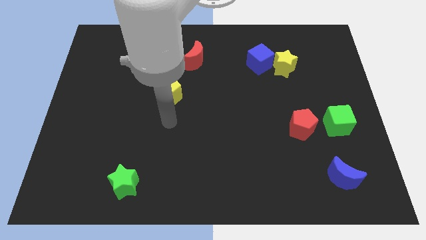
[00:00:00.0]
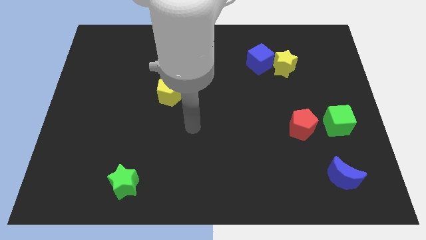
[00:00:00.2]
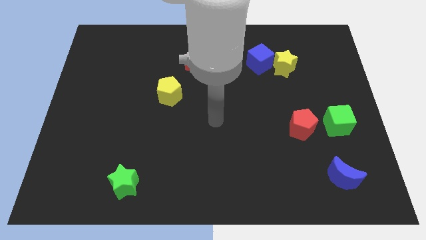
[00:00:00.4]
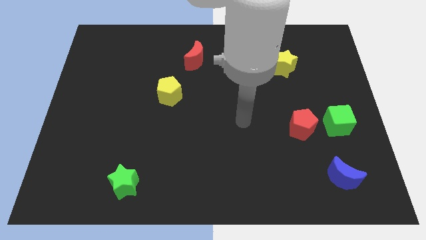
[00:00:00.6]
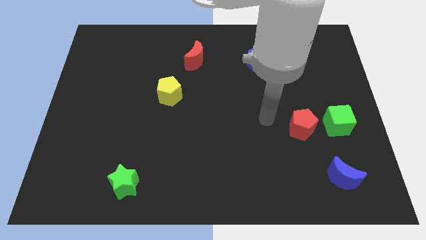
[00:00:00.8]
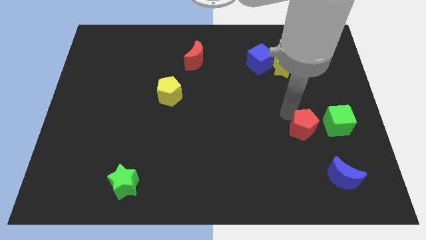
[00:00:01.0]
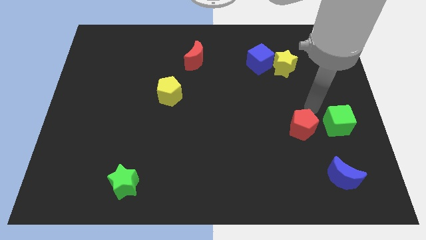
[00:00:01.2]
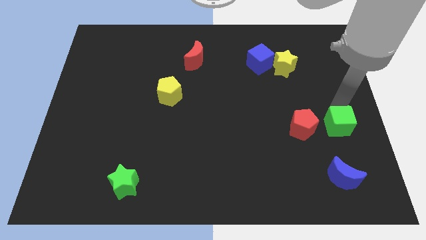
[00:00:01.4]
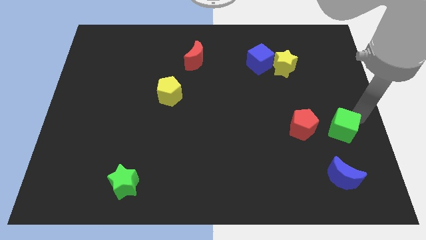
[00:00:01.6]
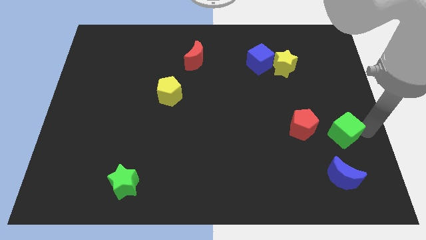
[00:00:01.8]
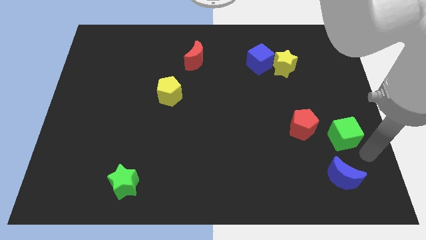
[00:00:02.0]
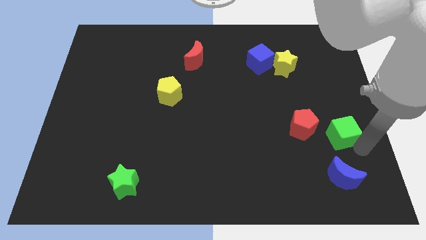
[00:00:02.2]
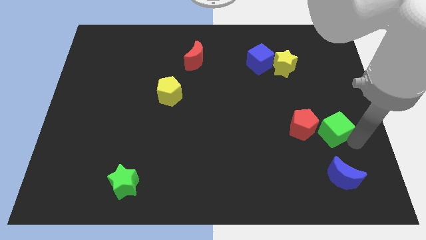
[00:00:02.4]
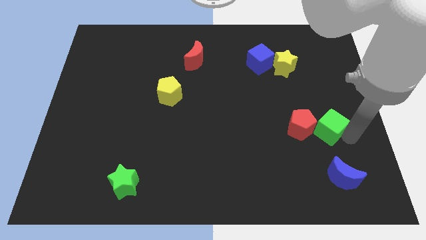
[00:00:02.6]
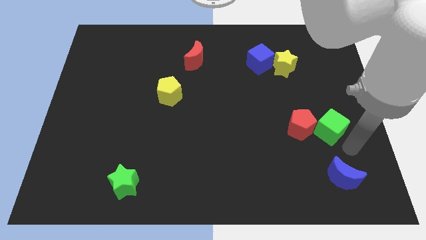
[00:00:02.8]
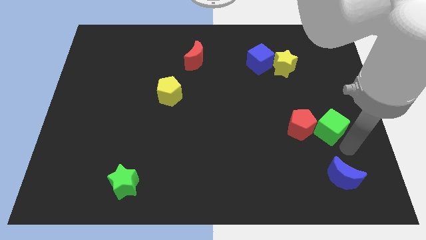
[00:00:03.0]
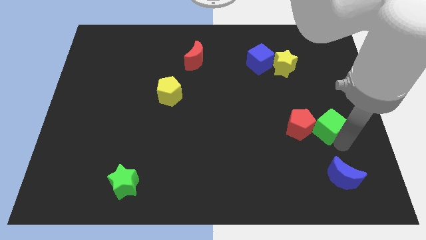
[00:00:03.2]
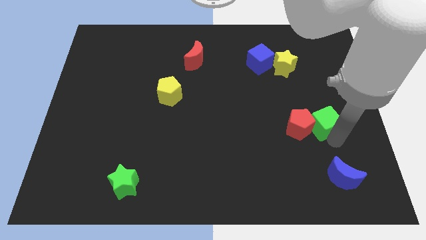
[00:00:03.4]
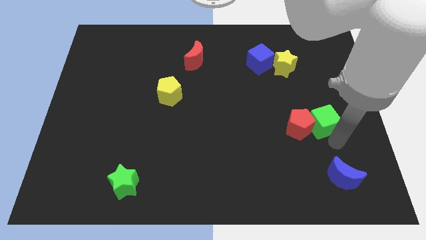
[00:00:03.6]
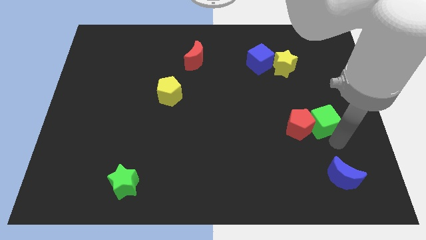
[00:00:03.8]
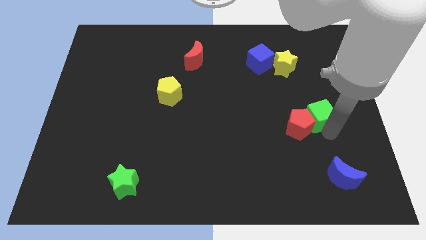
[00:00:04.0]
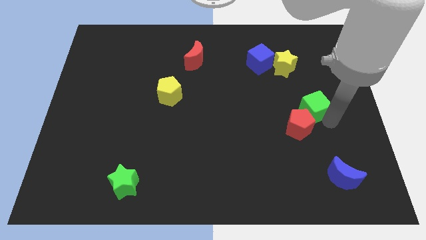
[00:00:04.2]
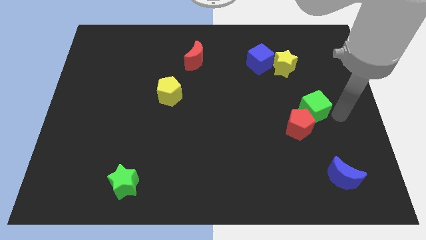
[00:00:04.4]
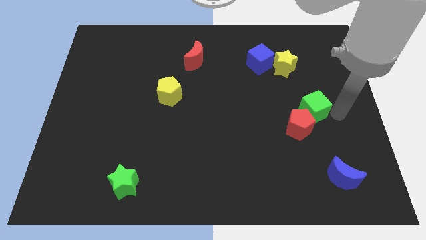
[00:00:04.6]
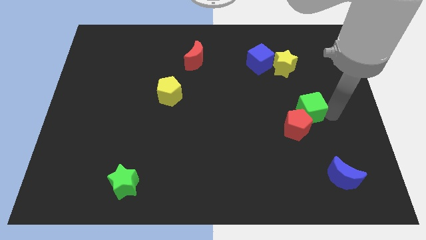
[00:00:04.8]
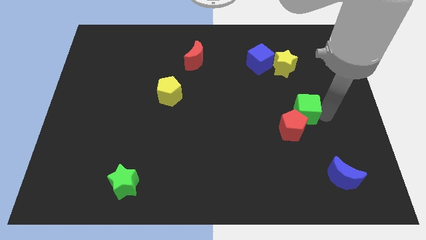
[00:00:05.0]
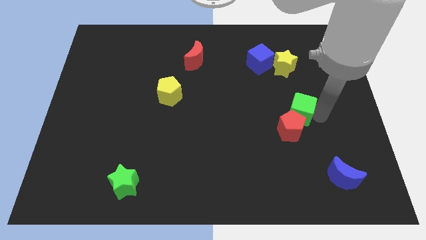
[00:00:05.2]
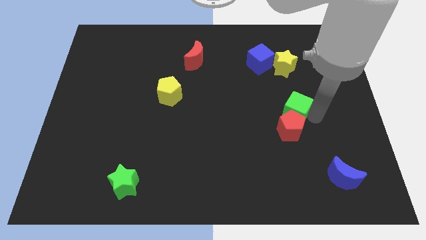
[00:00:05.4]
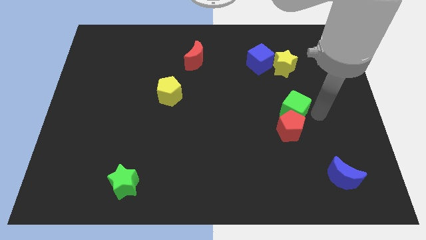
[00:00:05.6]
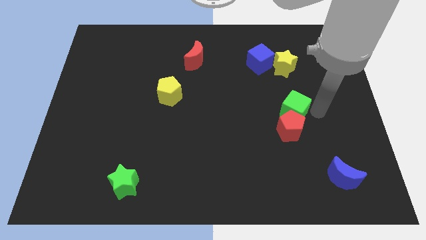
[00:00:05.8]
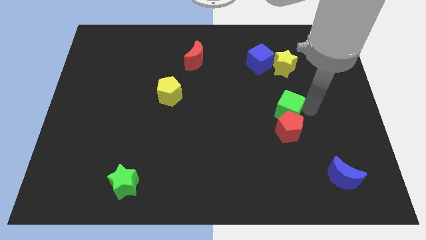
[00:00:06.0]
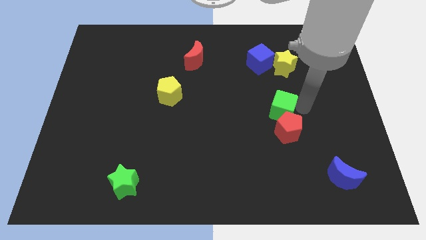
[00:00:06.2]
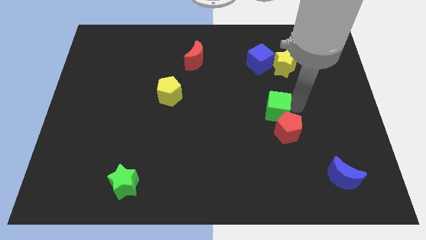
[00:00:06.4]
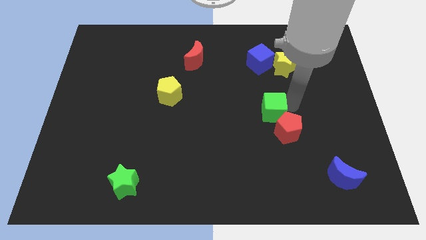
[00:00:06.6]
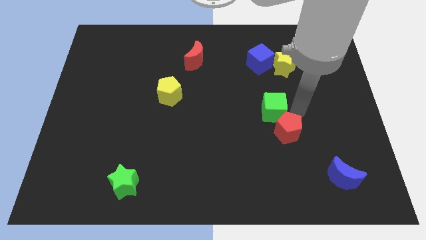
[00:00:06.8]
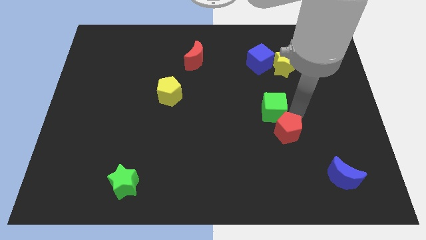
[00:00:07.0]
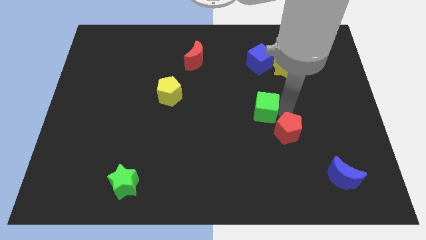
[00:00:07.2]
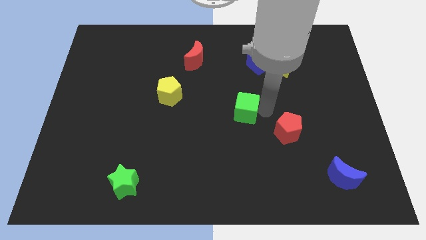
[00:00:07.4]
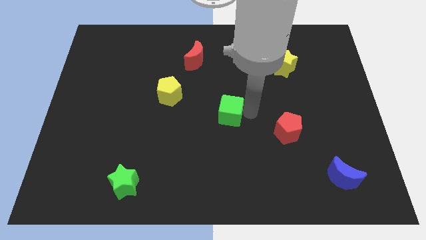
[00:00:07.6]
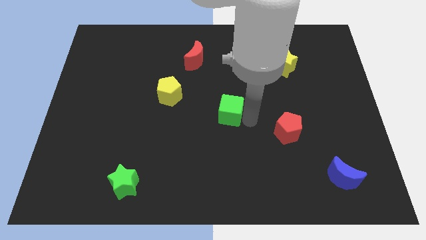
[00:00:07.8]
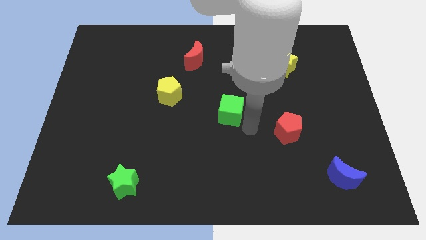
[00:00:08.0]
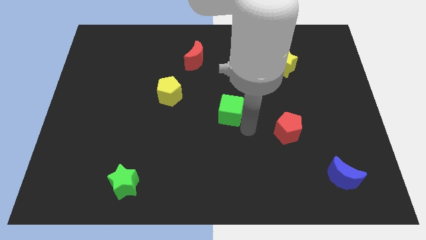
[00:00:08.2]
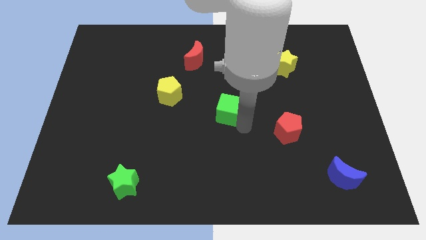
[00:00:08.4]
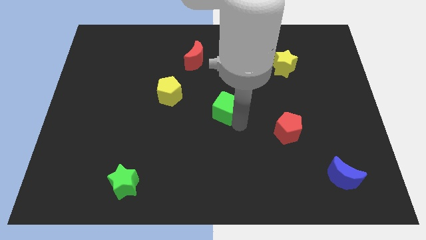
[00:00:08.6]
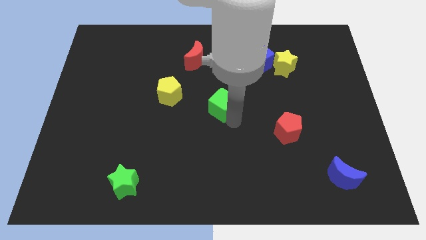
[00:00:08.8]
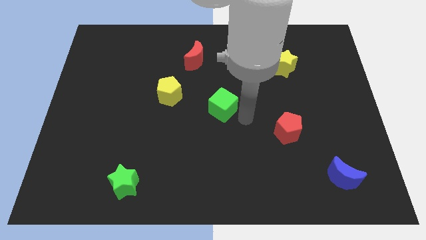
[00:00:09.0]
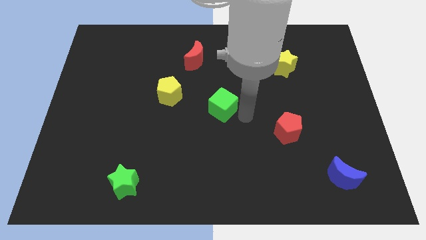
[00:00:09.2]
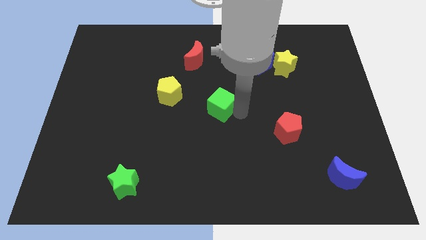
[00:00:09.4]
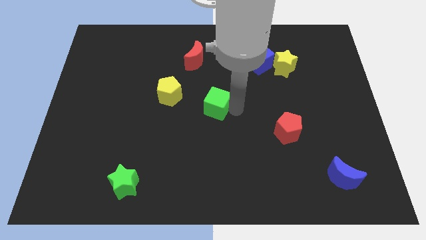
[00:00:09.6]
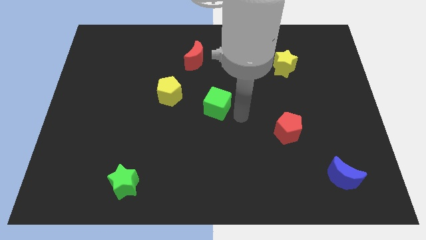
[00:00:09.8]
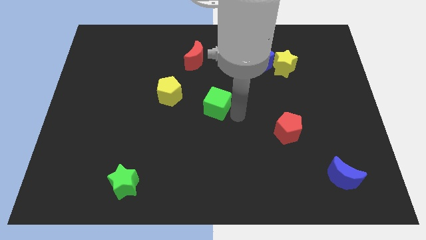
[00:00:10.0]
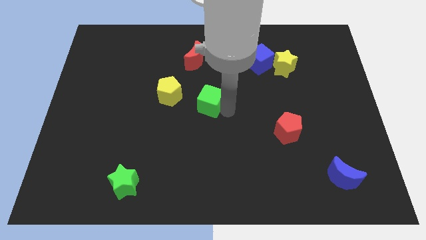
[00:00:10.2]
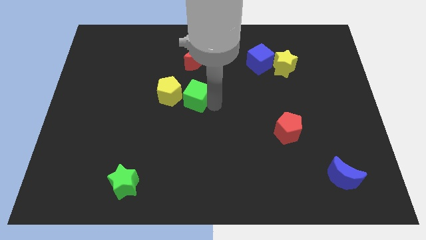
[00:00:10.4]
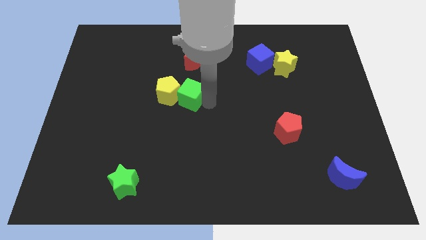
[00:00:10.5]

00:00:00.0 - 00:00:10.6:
put the green cube next to the yellow pentagon

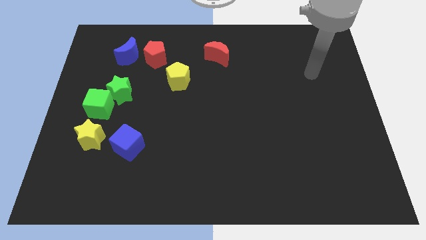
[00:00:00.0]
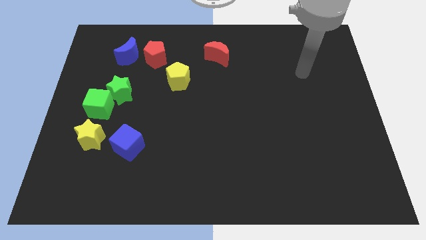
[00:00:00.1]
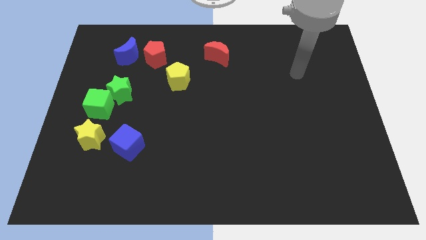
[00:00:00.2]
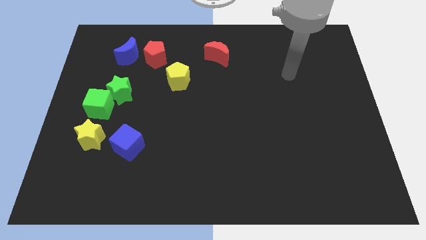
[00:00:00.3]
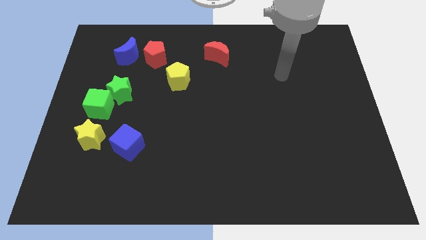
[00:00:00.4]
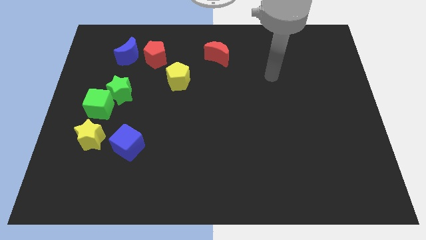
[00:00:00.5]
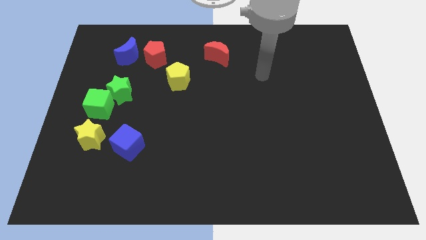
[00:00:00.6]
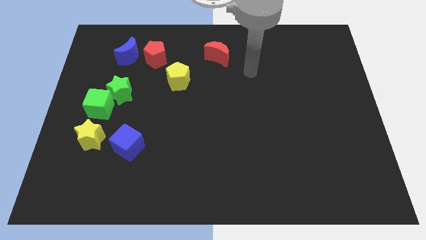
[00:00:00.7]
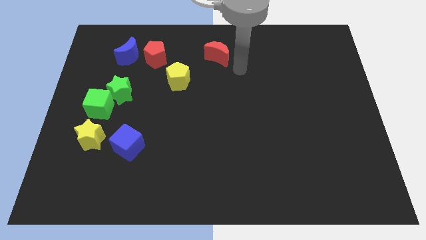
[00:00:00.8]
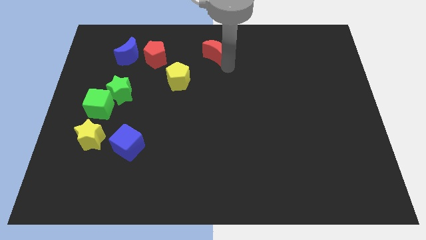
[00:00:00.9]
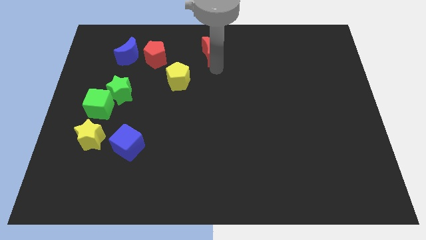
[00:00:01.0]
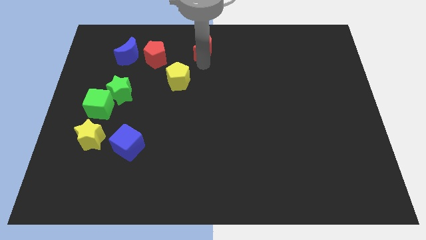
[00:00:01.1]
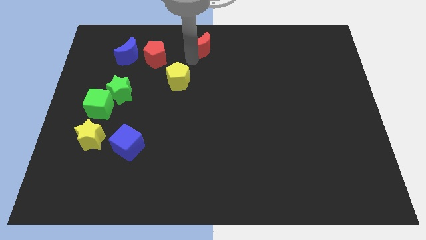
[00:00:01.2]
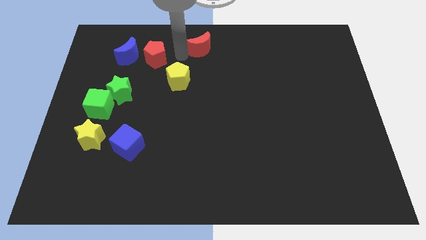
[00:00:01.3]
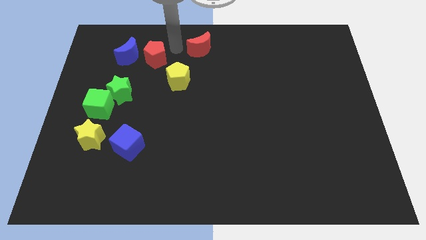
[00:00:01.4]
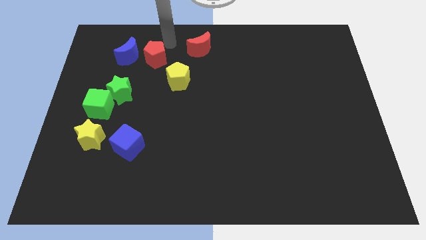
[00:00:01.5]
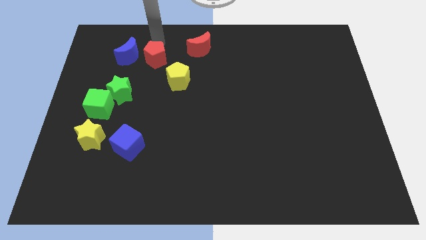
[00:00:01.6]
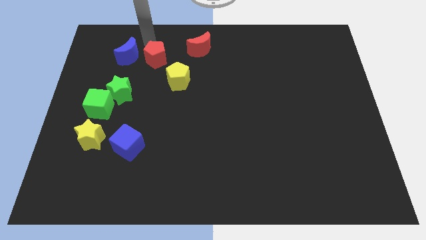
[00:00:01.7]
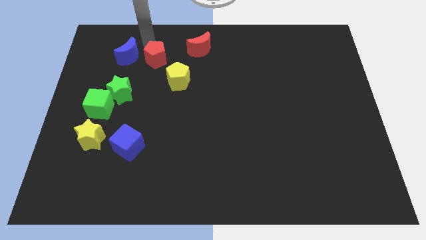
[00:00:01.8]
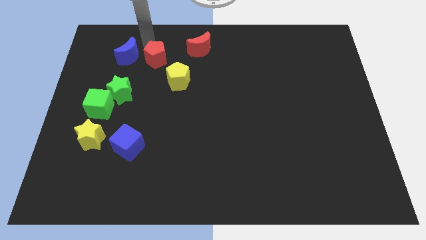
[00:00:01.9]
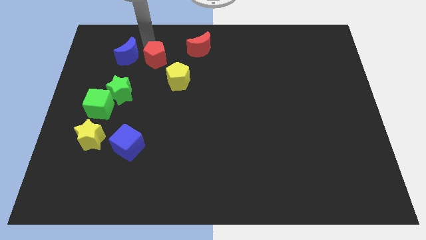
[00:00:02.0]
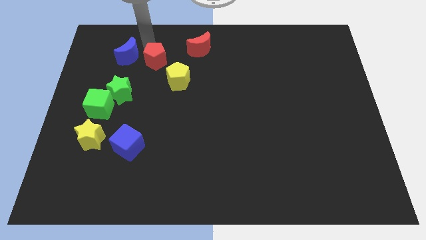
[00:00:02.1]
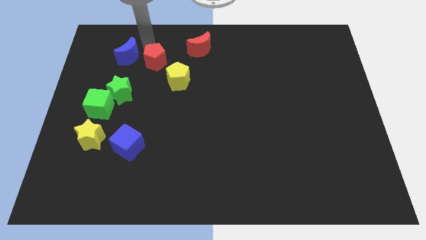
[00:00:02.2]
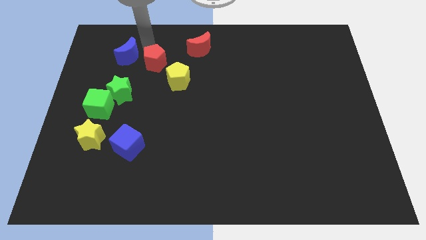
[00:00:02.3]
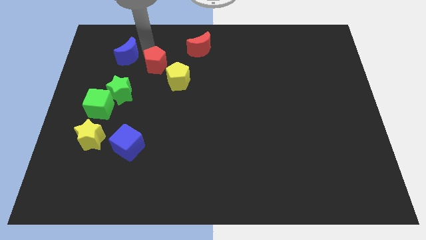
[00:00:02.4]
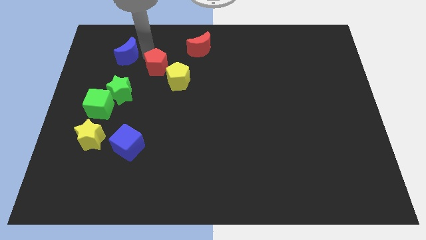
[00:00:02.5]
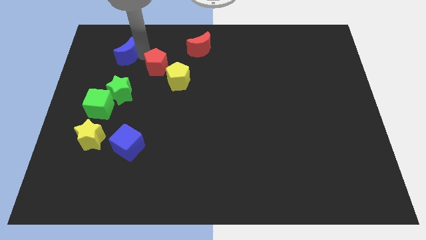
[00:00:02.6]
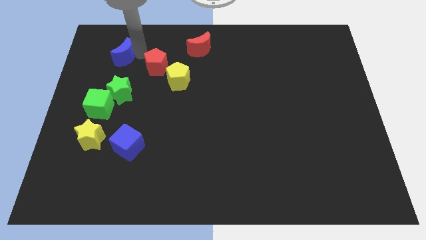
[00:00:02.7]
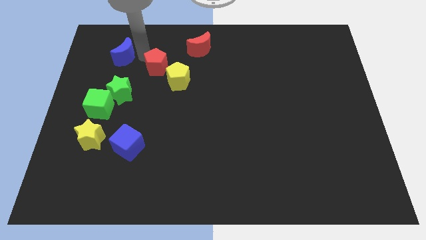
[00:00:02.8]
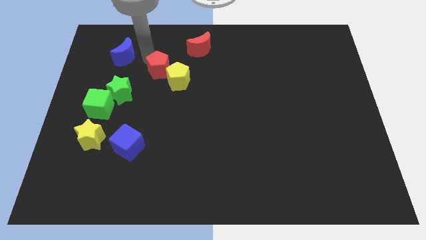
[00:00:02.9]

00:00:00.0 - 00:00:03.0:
slide the red pentagon to the yellow pentagon
